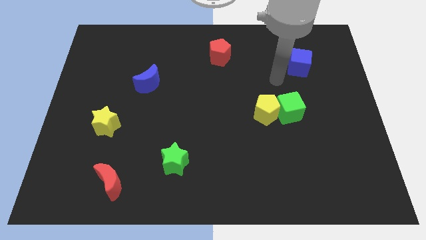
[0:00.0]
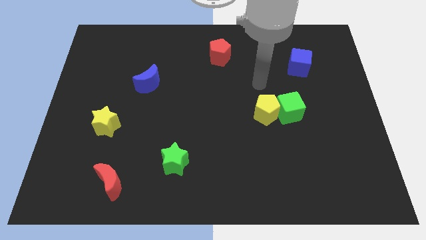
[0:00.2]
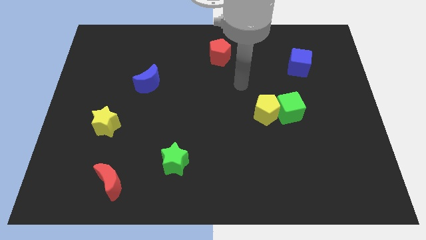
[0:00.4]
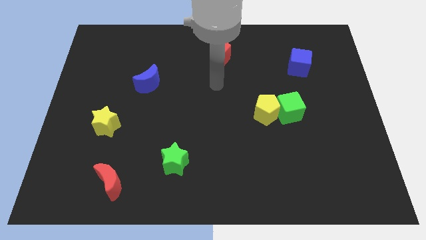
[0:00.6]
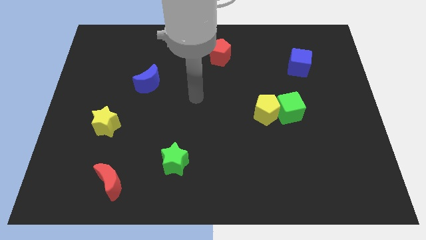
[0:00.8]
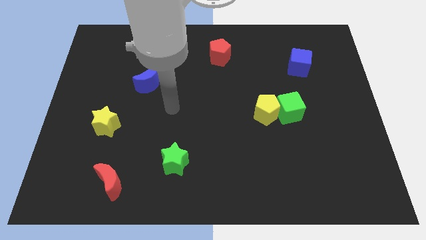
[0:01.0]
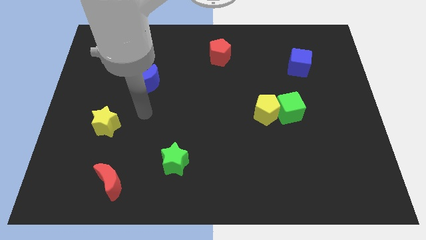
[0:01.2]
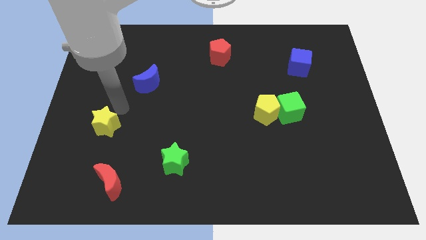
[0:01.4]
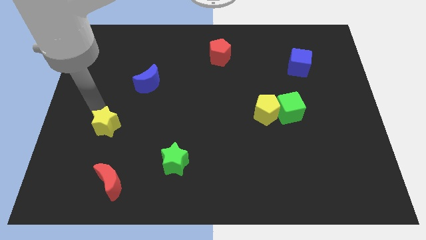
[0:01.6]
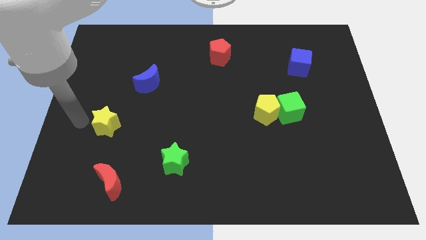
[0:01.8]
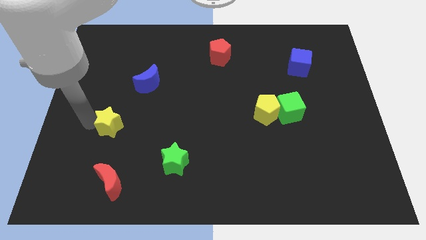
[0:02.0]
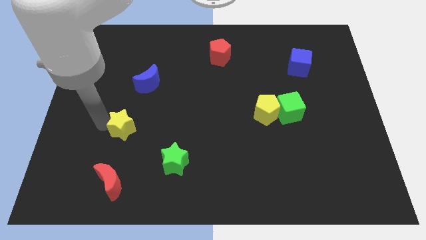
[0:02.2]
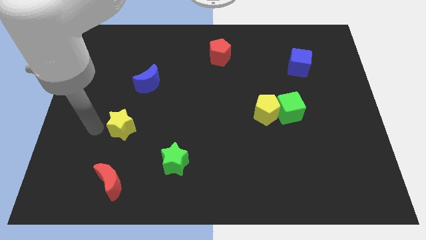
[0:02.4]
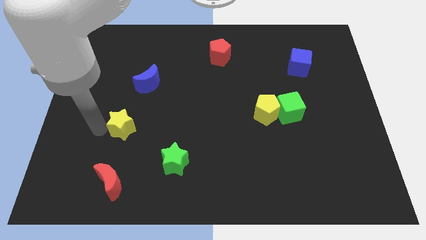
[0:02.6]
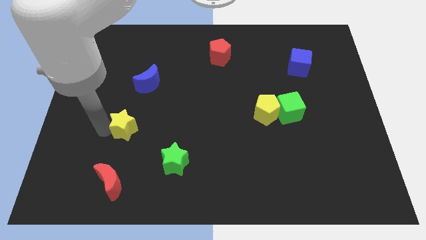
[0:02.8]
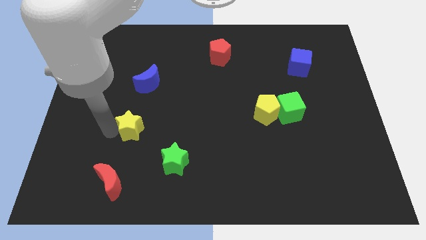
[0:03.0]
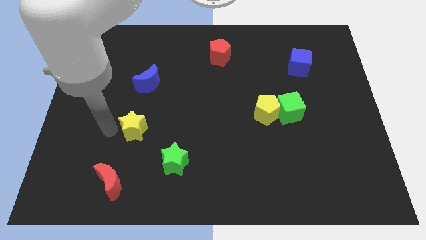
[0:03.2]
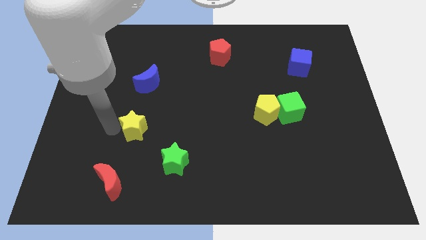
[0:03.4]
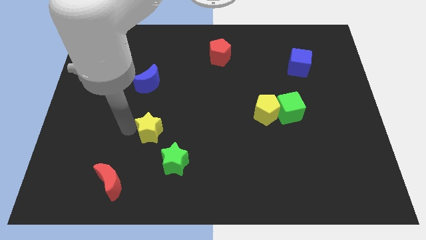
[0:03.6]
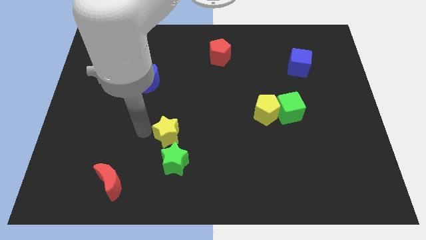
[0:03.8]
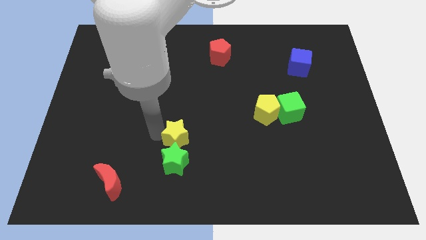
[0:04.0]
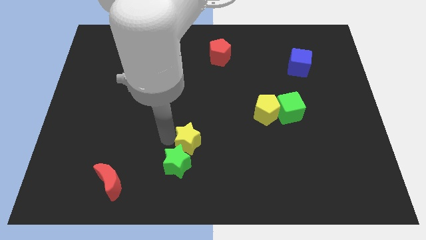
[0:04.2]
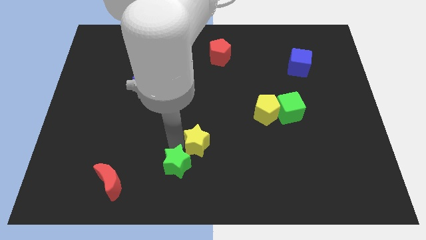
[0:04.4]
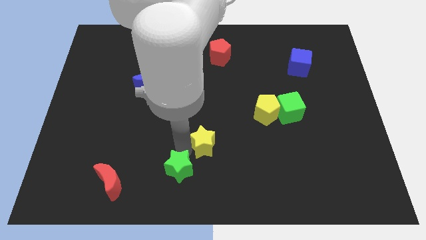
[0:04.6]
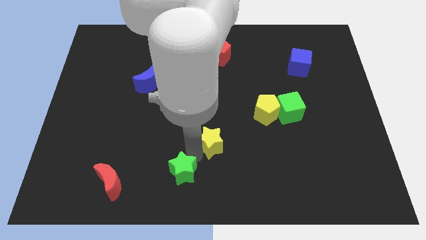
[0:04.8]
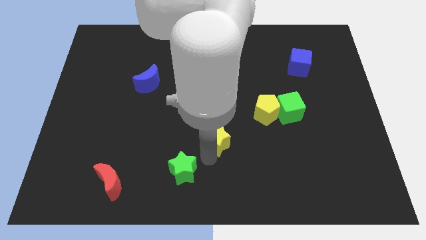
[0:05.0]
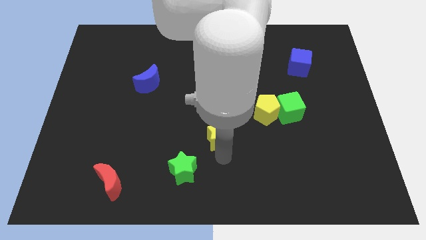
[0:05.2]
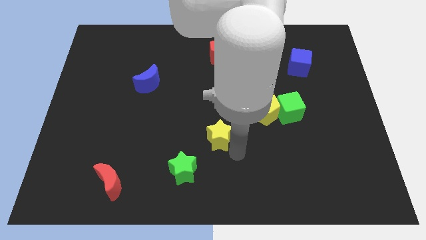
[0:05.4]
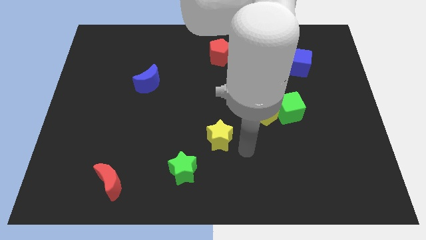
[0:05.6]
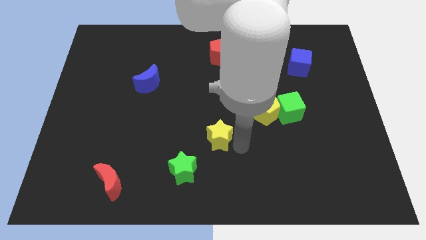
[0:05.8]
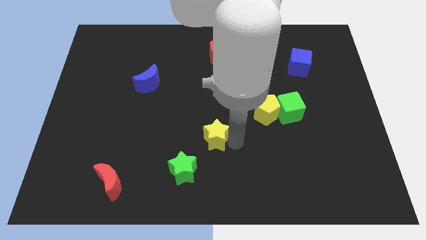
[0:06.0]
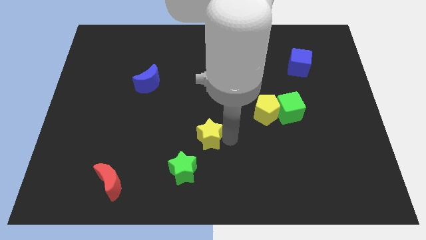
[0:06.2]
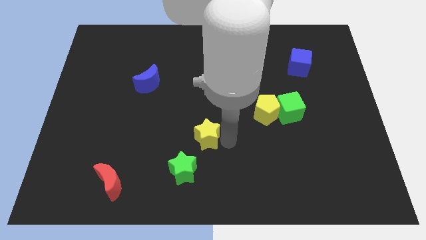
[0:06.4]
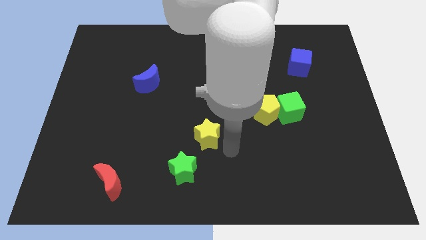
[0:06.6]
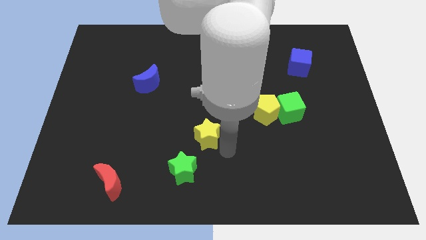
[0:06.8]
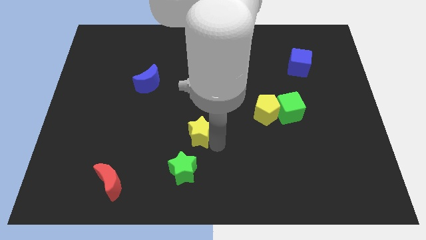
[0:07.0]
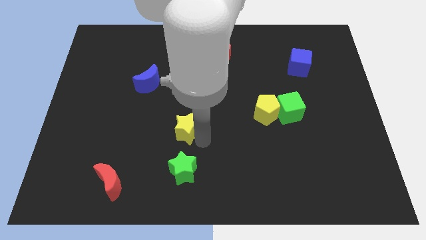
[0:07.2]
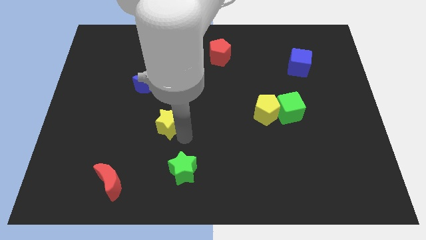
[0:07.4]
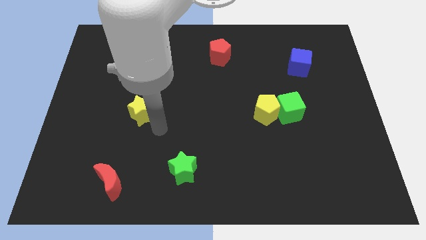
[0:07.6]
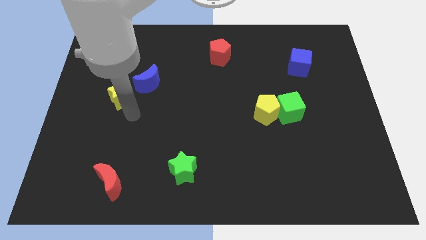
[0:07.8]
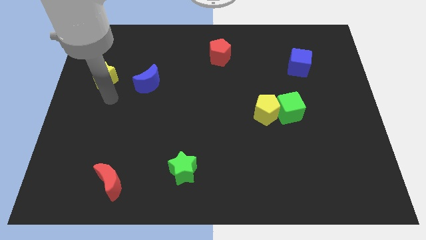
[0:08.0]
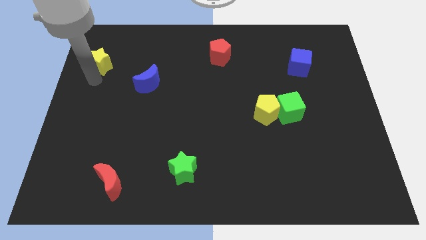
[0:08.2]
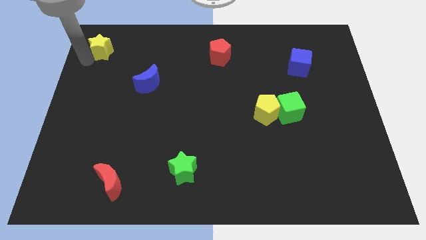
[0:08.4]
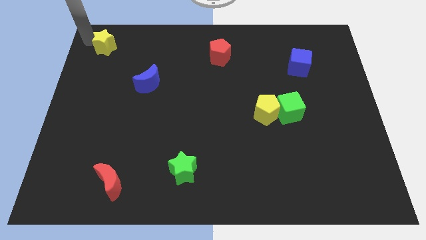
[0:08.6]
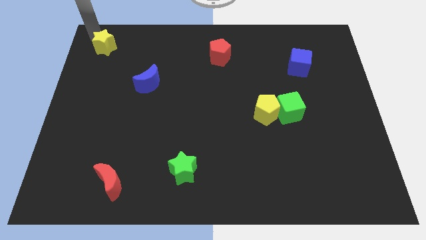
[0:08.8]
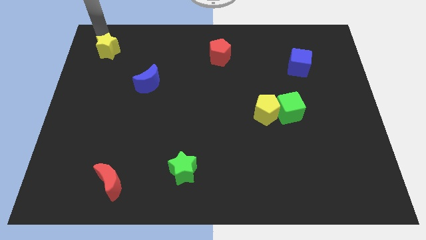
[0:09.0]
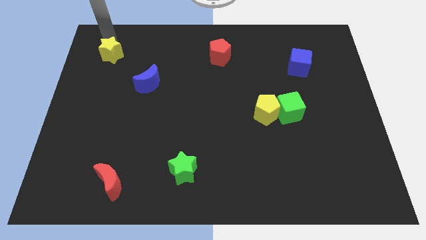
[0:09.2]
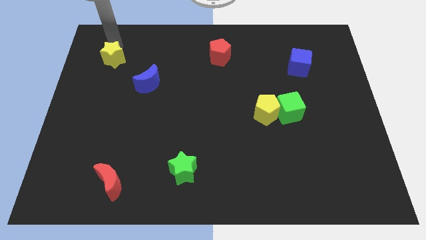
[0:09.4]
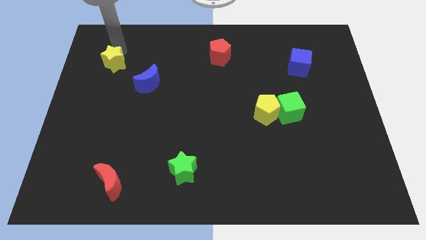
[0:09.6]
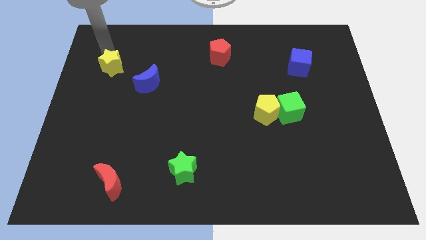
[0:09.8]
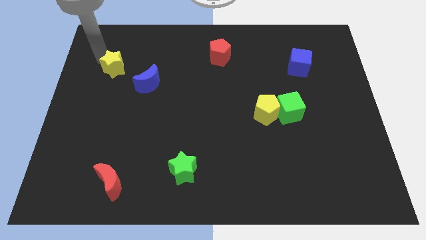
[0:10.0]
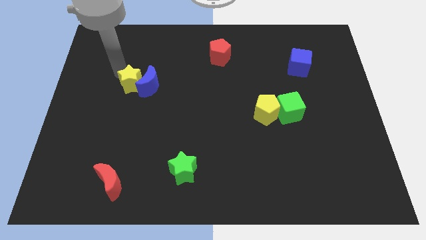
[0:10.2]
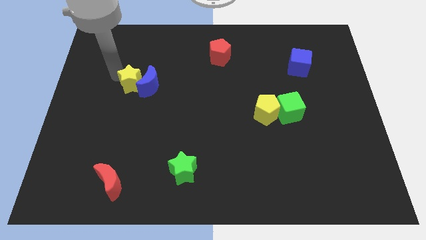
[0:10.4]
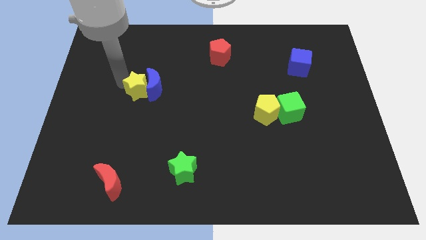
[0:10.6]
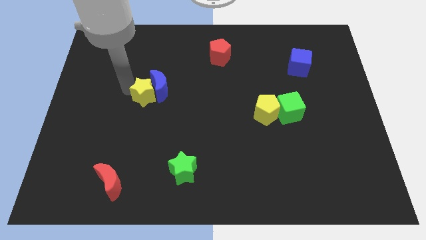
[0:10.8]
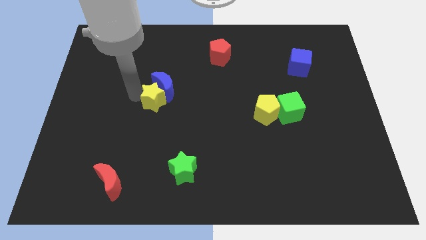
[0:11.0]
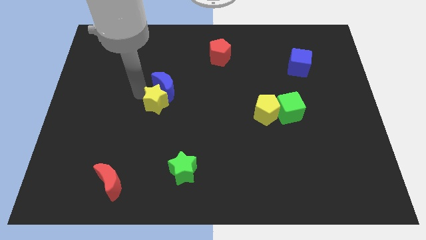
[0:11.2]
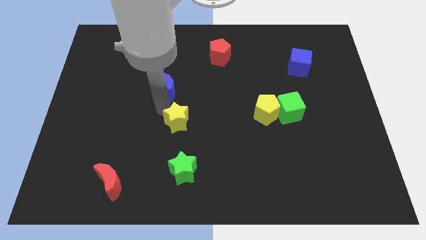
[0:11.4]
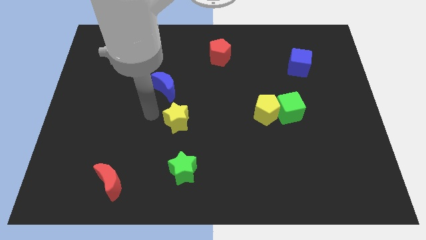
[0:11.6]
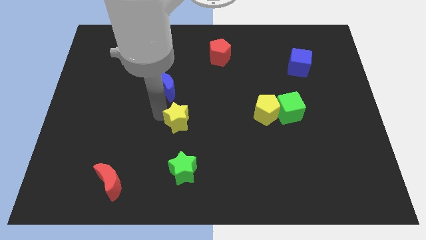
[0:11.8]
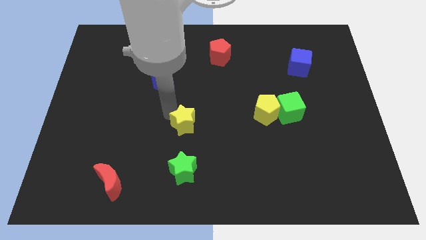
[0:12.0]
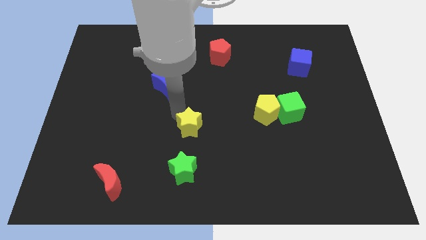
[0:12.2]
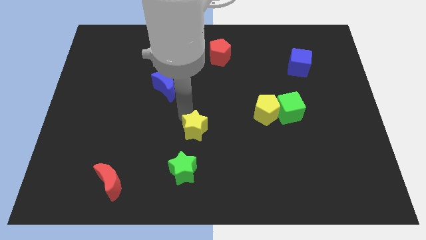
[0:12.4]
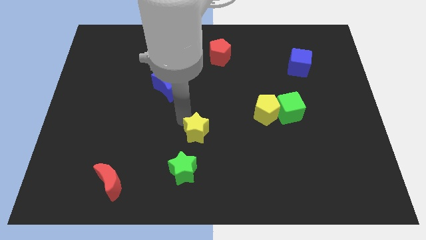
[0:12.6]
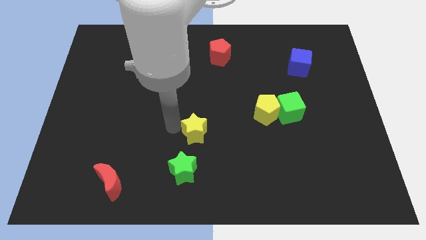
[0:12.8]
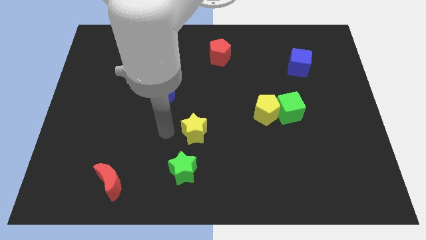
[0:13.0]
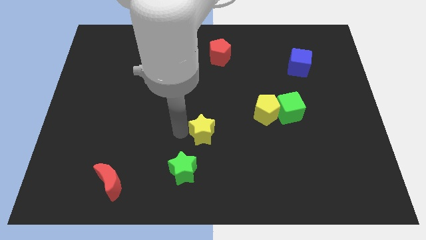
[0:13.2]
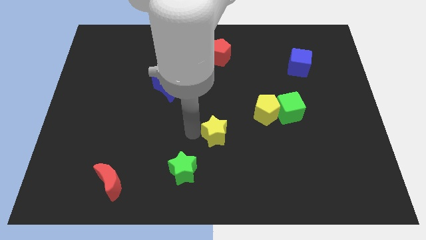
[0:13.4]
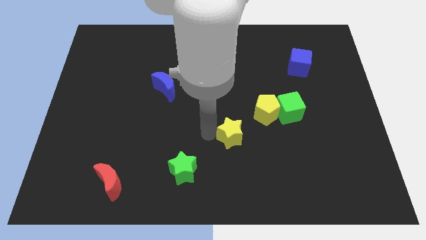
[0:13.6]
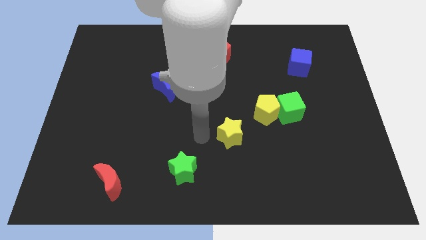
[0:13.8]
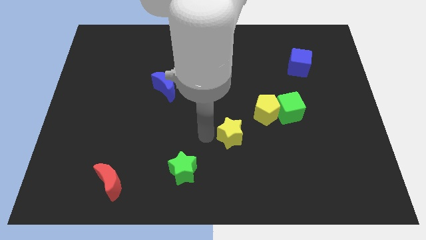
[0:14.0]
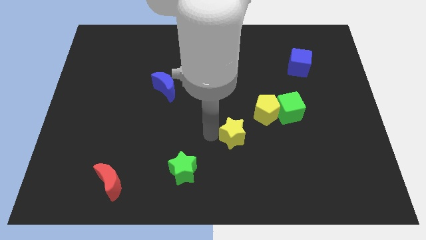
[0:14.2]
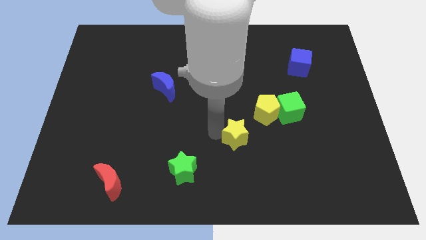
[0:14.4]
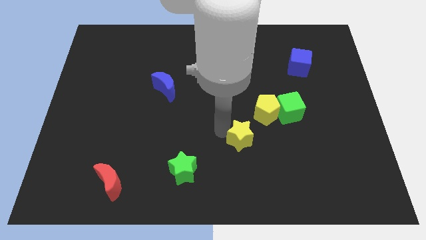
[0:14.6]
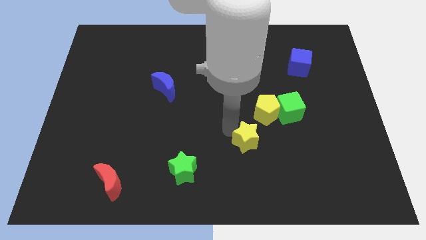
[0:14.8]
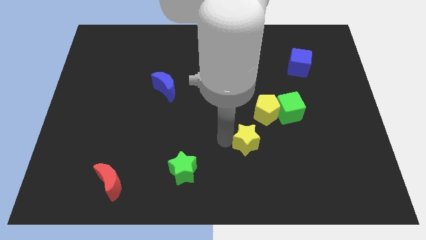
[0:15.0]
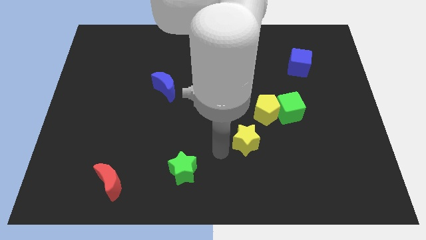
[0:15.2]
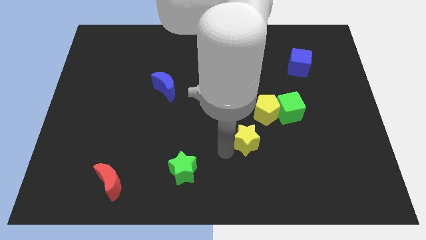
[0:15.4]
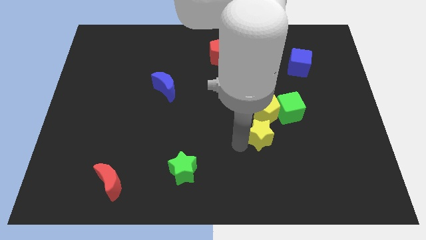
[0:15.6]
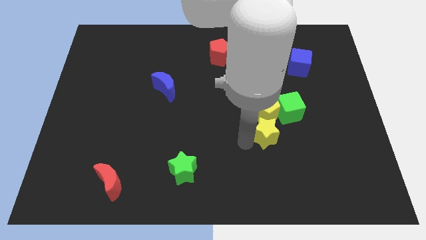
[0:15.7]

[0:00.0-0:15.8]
move the yellow star to the bottom right of the yellow pentagon
